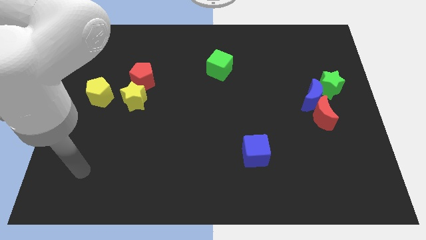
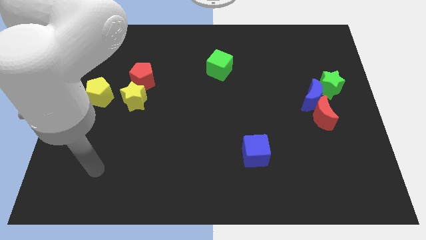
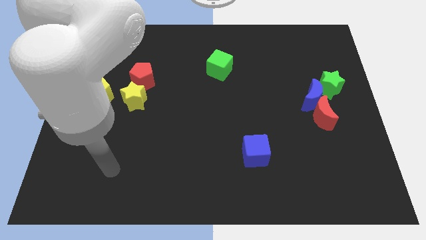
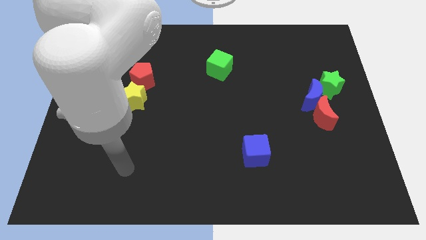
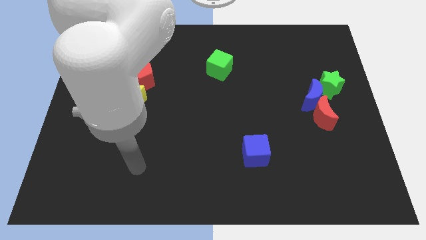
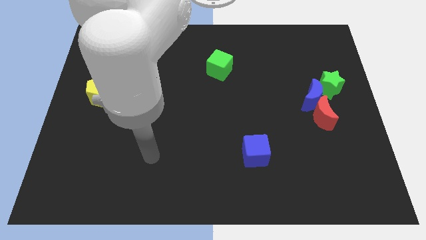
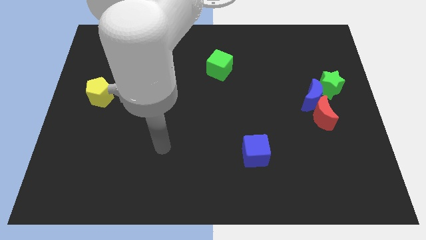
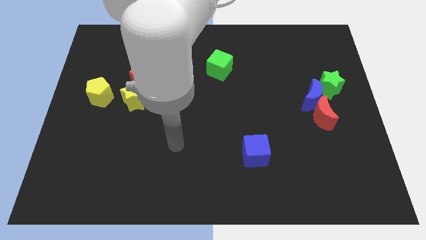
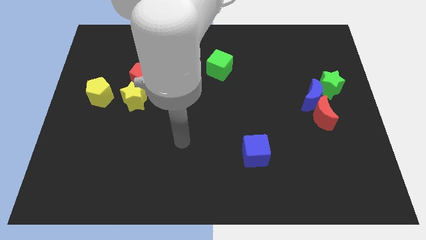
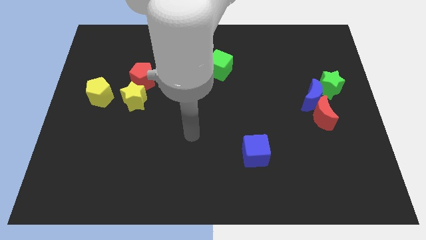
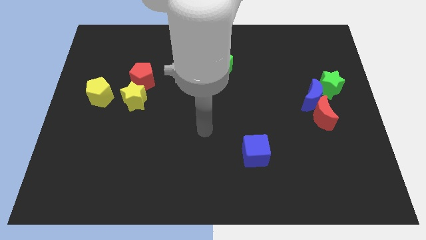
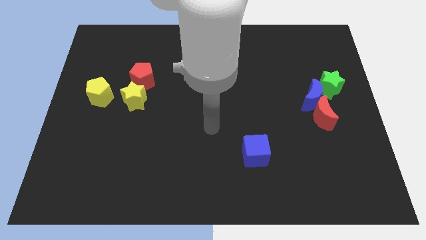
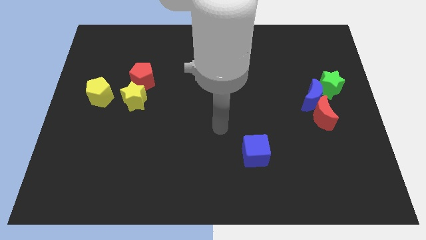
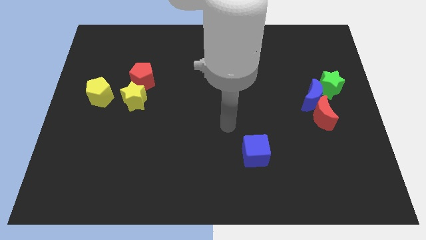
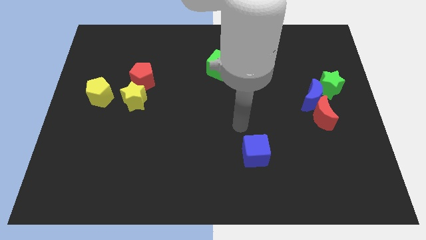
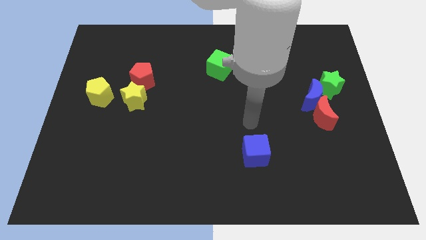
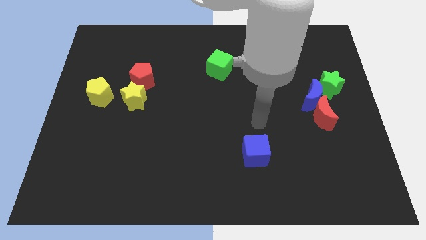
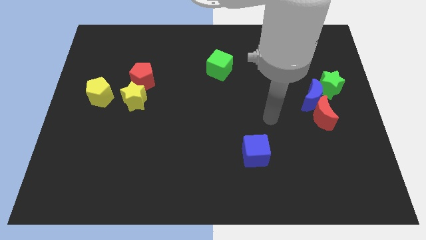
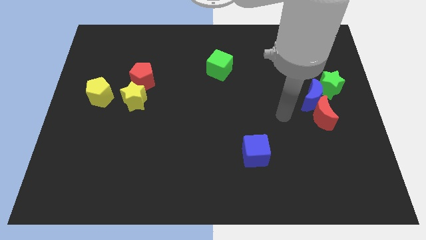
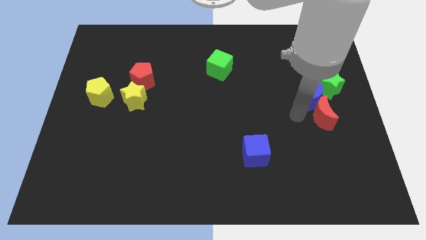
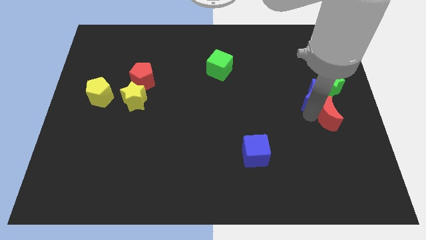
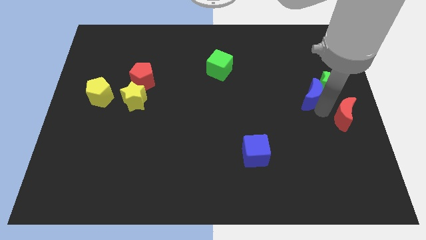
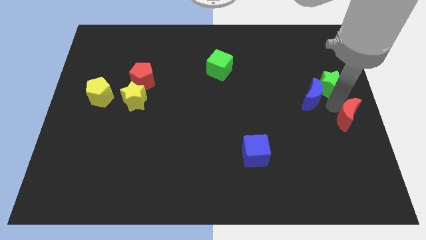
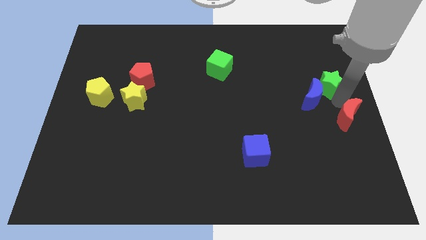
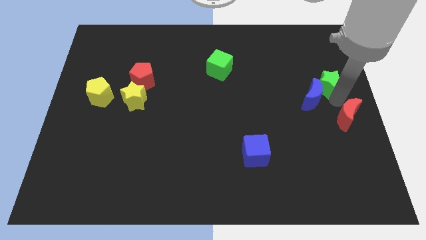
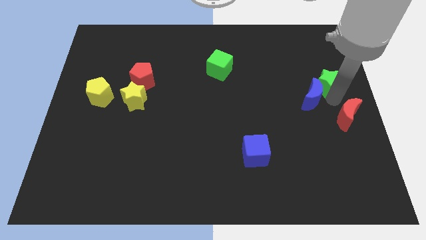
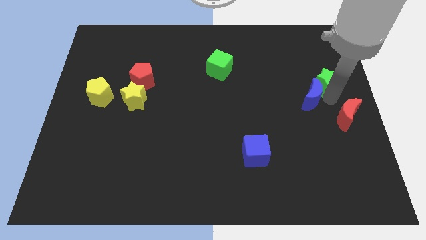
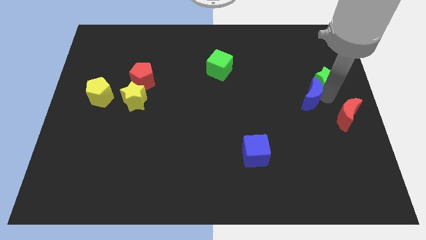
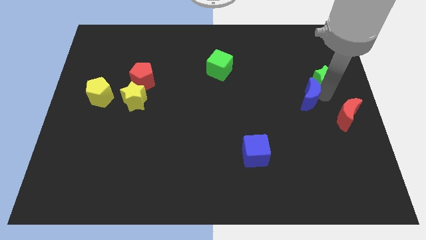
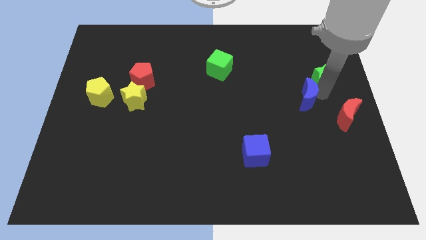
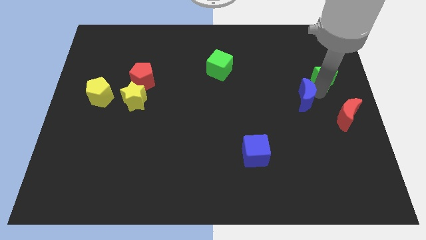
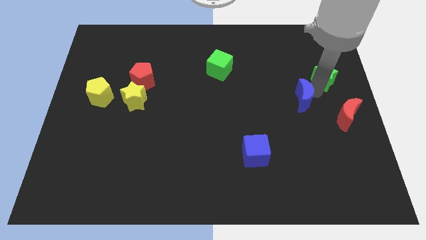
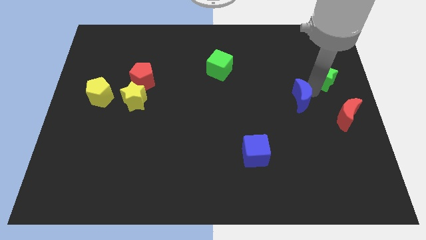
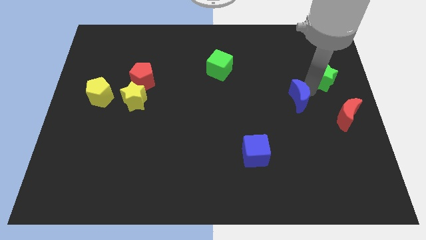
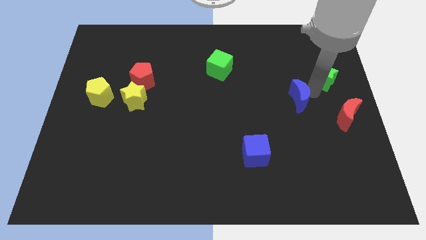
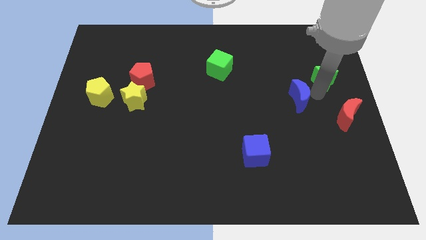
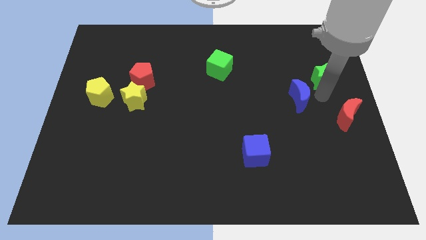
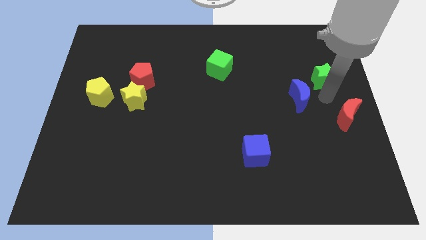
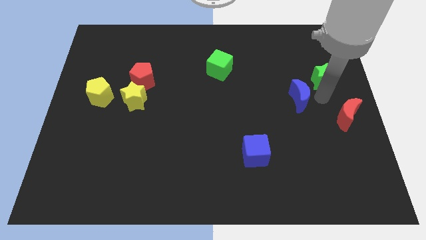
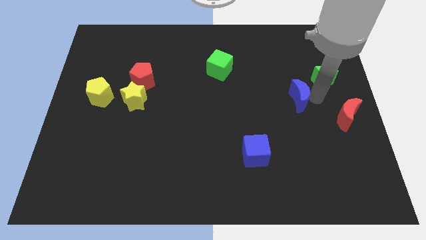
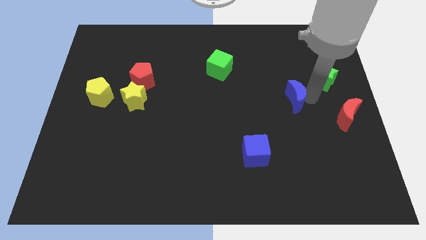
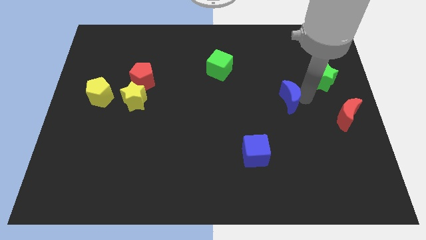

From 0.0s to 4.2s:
pull the blue moon apart from the red moon and green star

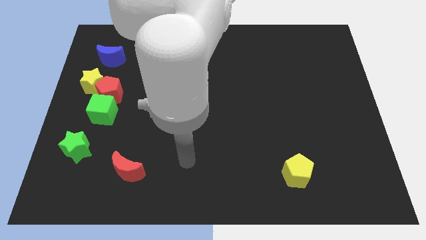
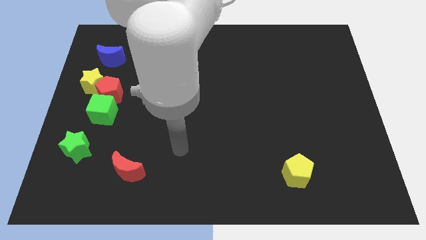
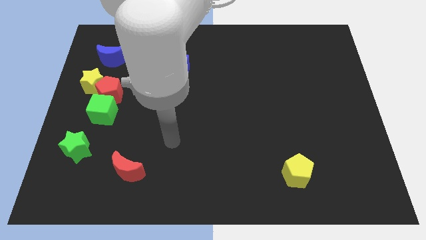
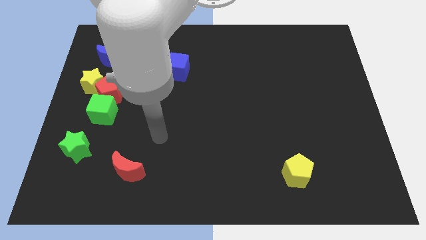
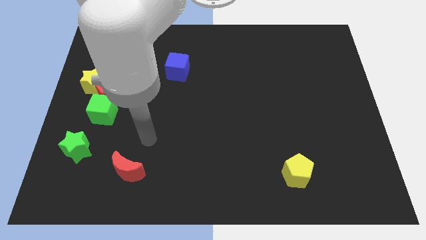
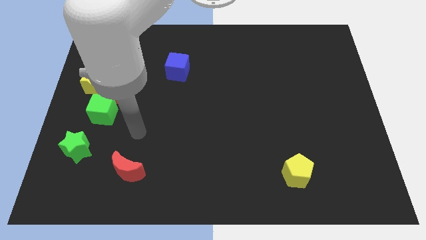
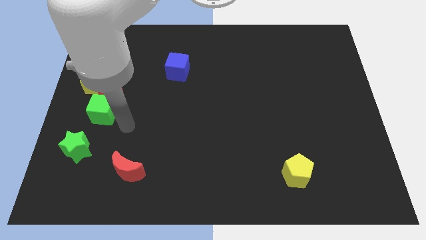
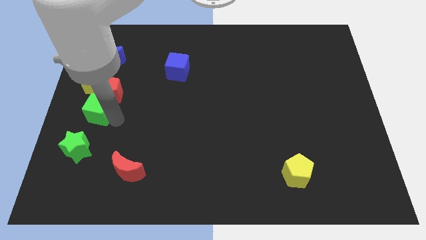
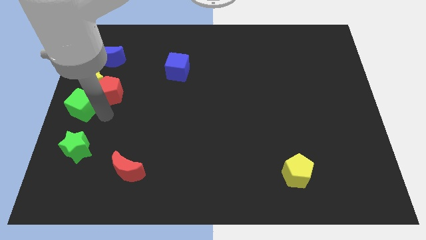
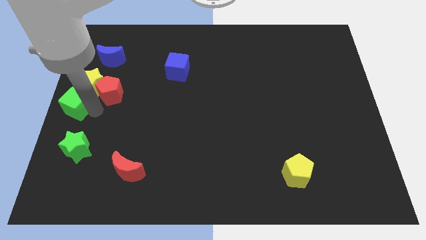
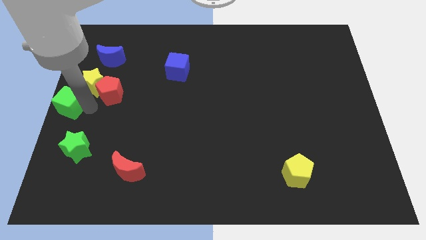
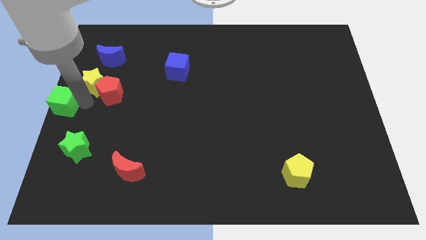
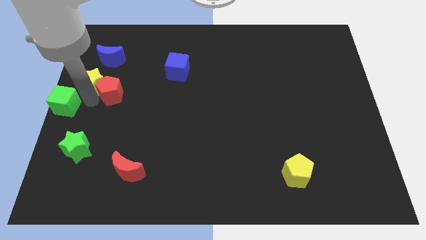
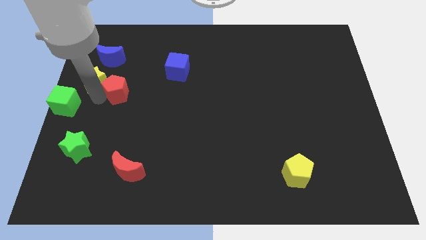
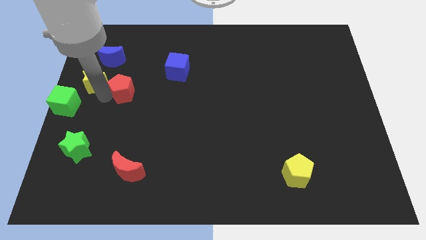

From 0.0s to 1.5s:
move the red pentagon away from the yellow star and green cube

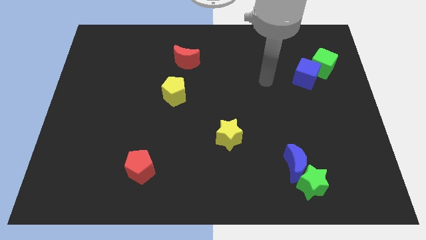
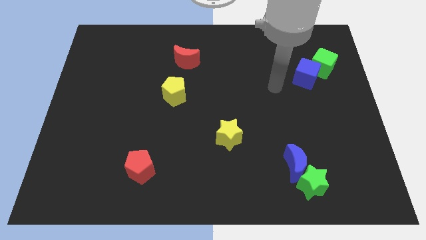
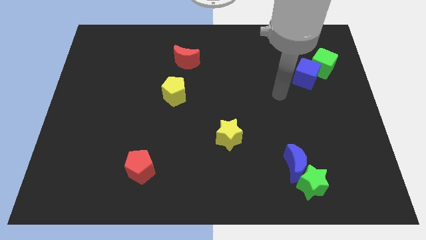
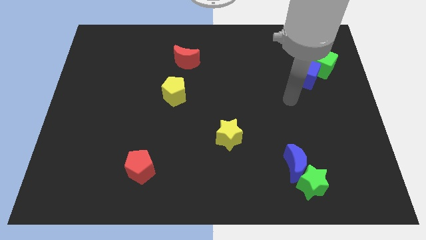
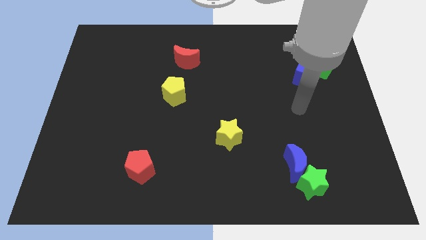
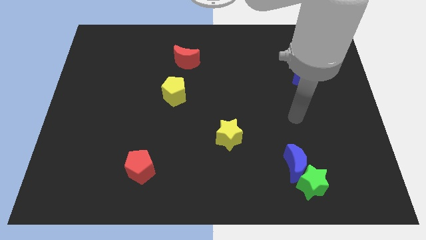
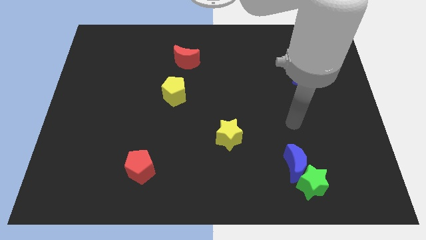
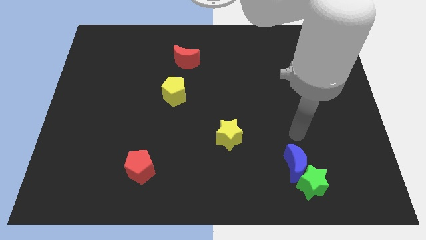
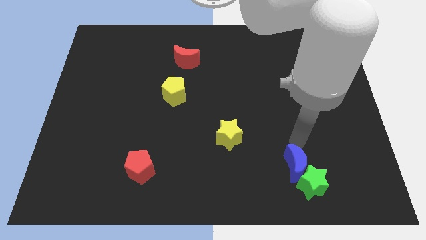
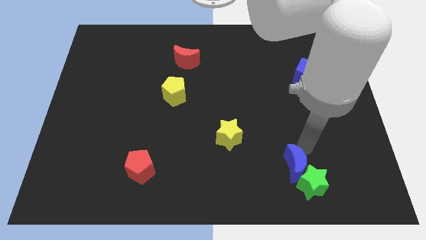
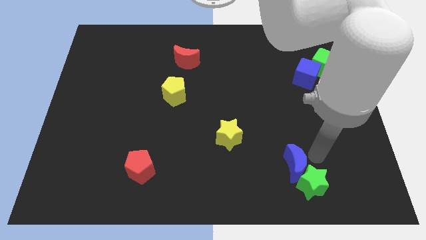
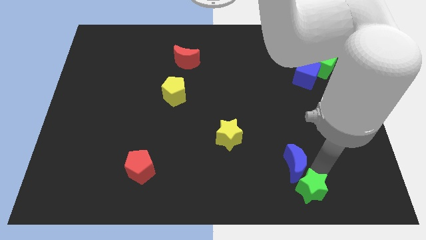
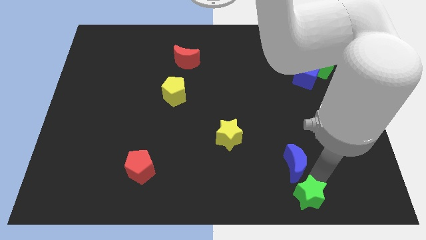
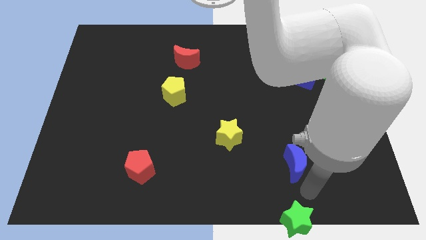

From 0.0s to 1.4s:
pull the blue moon apart from the green star

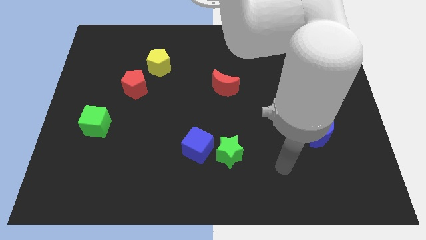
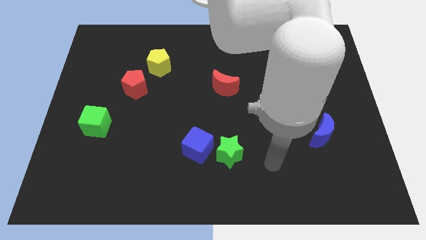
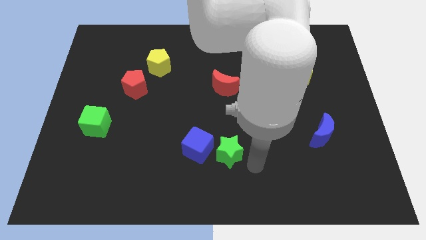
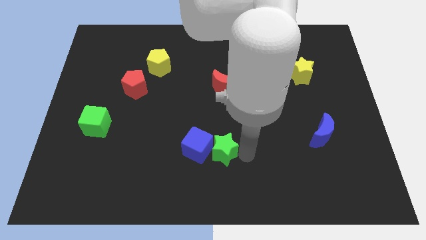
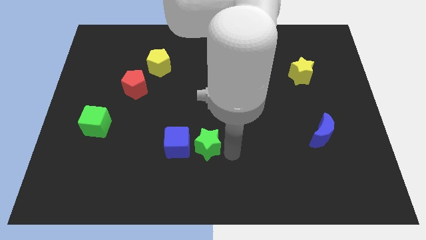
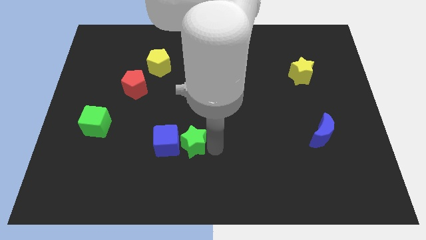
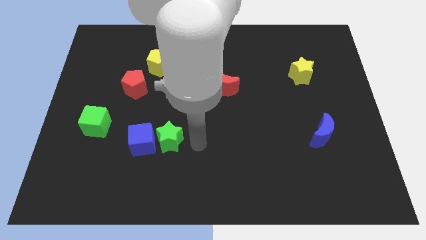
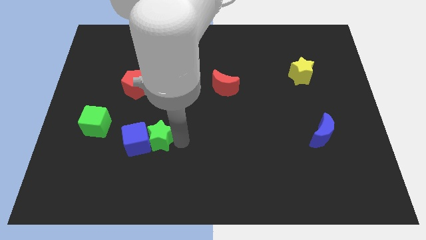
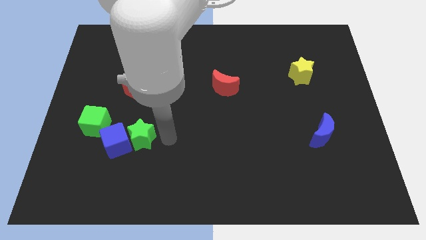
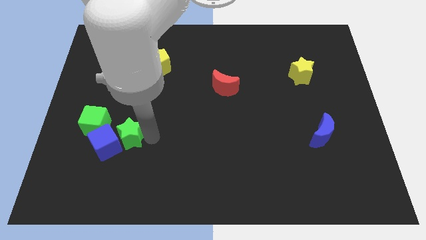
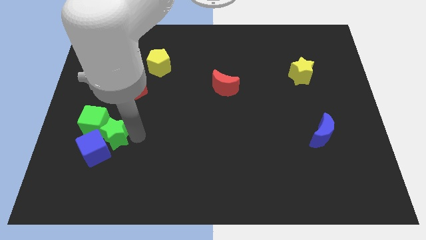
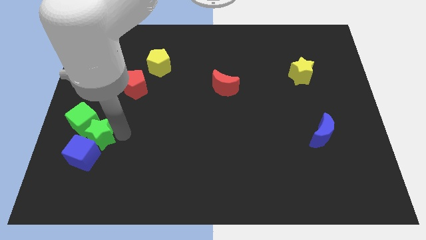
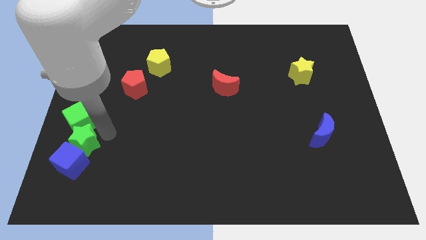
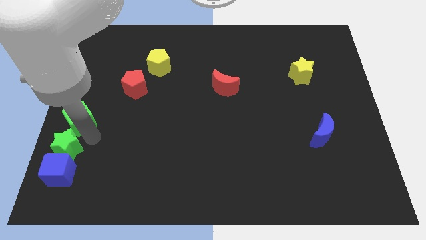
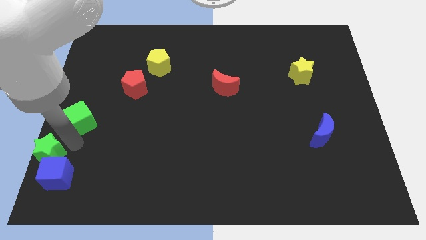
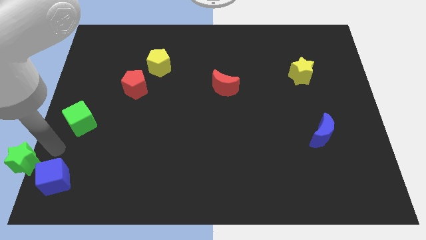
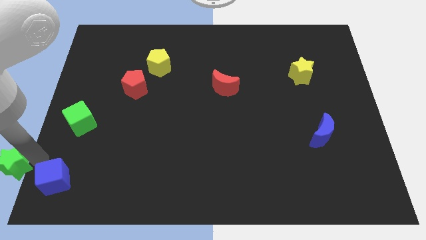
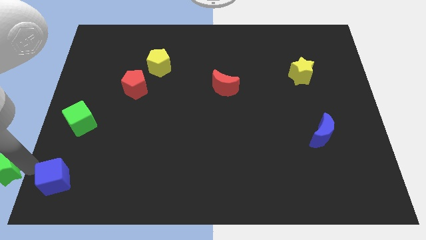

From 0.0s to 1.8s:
separate the blue cube from the green star

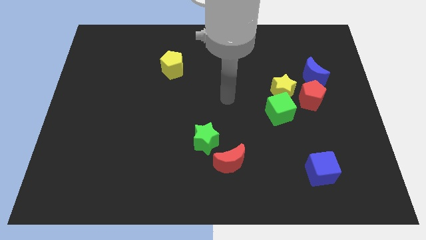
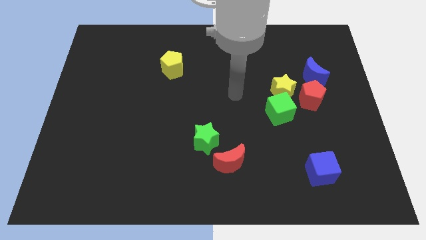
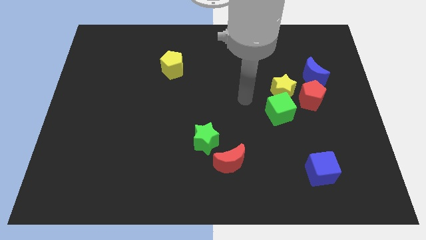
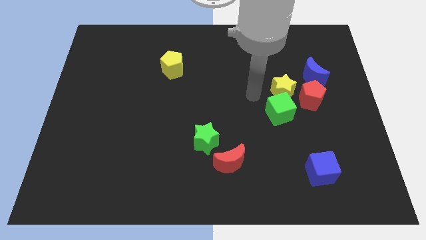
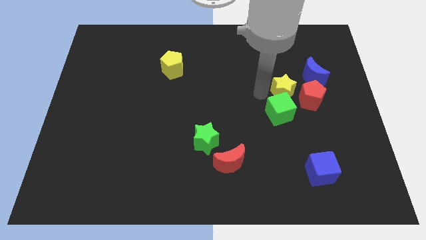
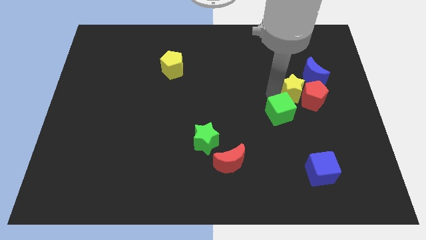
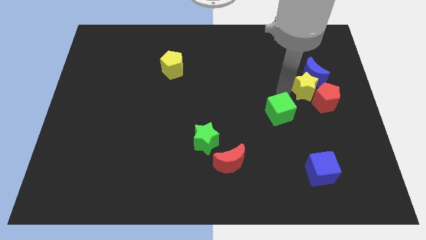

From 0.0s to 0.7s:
move the green cube away from the yellow star and red pentagon
